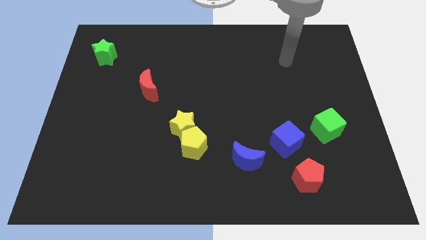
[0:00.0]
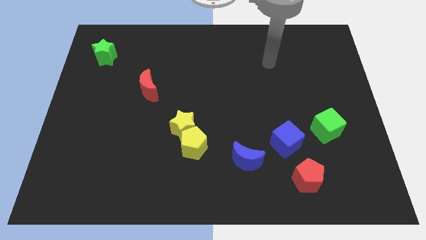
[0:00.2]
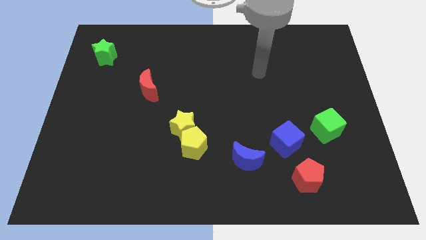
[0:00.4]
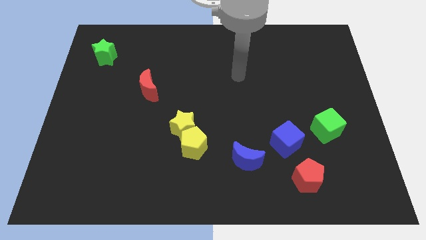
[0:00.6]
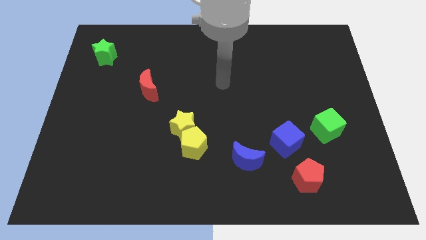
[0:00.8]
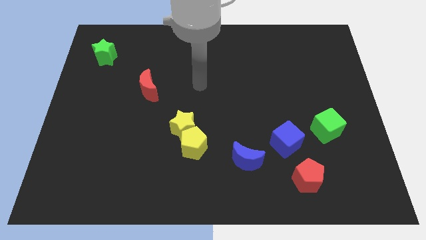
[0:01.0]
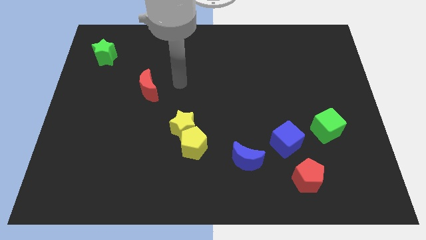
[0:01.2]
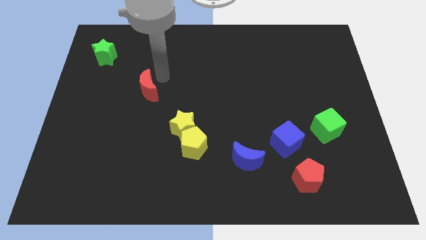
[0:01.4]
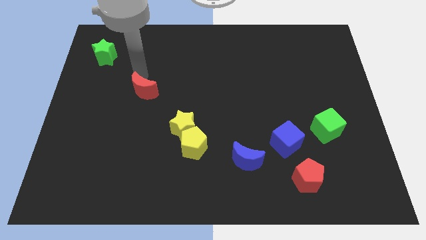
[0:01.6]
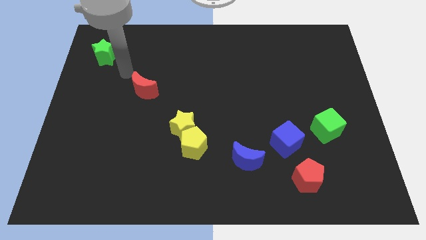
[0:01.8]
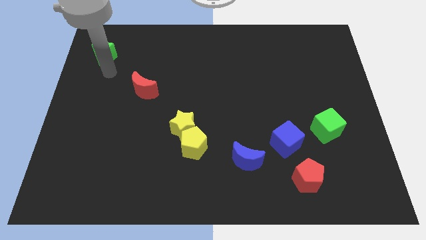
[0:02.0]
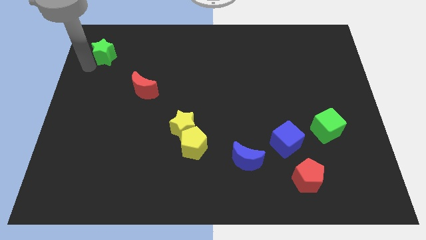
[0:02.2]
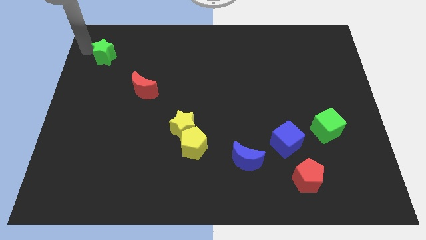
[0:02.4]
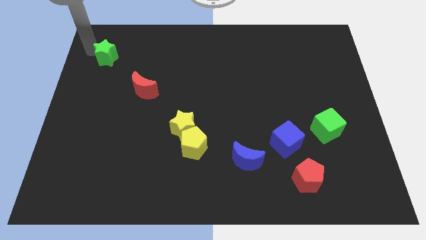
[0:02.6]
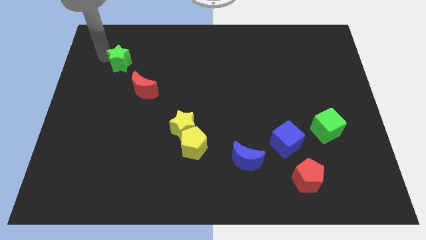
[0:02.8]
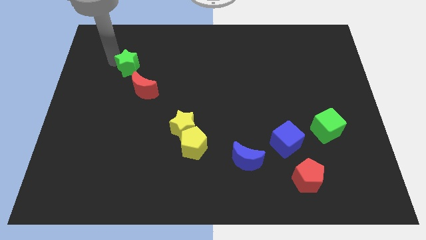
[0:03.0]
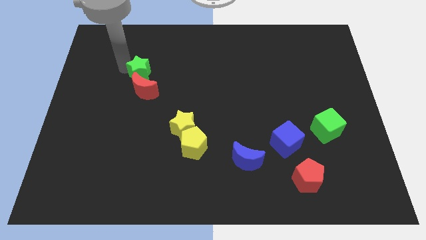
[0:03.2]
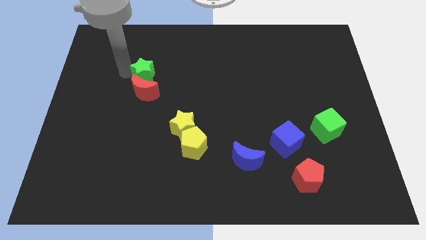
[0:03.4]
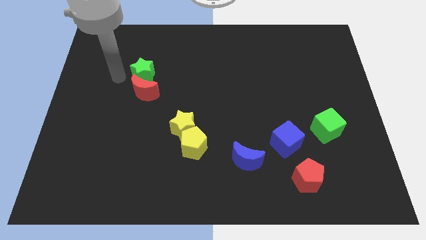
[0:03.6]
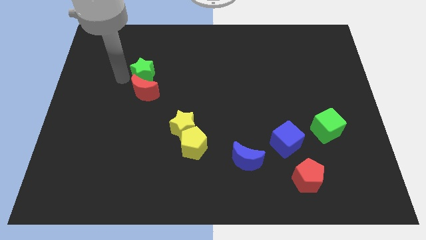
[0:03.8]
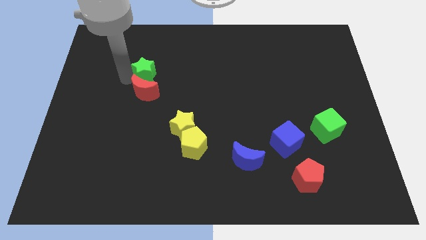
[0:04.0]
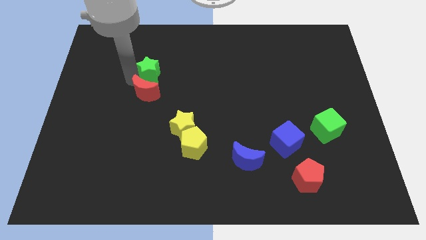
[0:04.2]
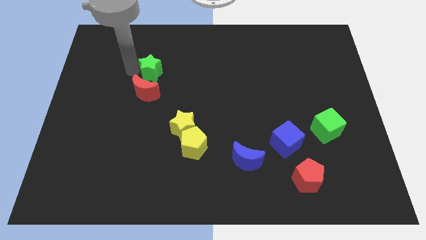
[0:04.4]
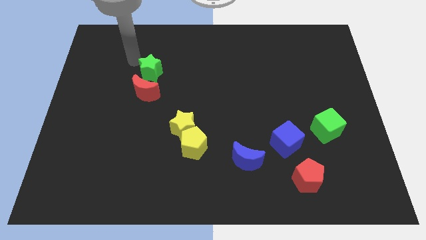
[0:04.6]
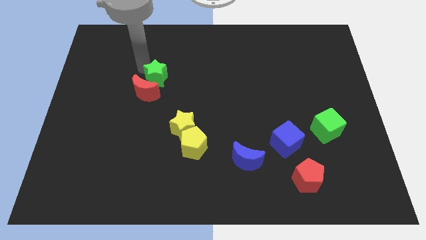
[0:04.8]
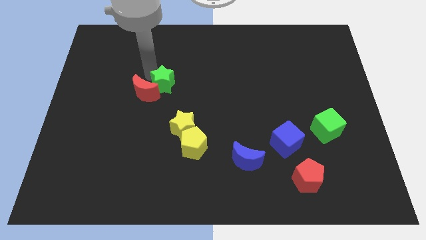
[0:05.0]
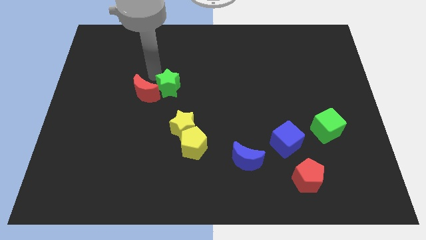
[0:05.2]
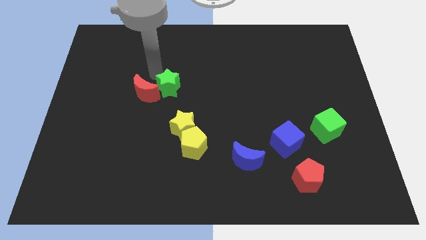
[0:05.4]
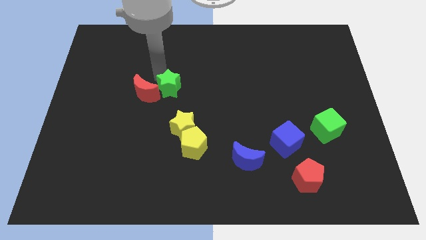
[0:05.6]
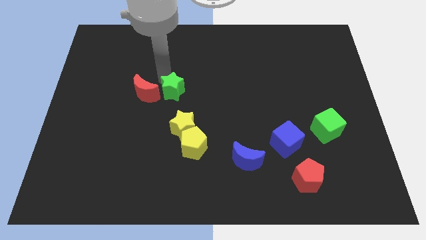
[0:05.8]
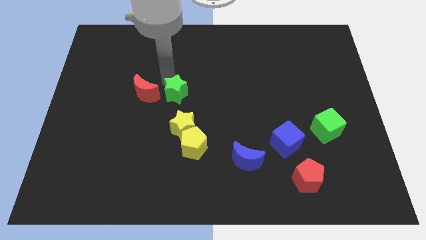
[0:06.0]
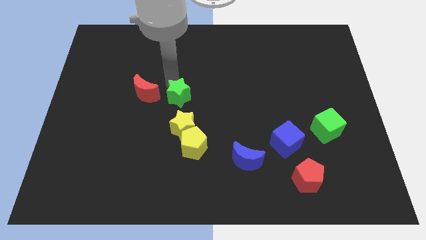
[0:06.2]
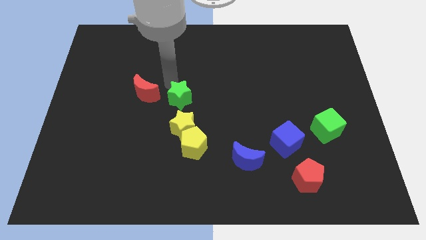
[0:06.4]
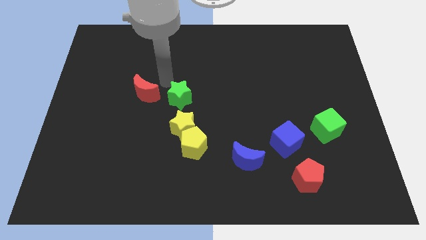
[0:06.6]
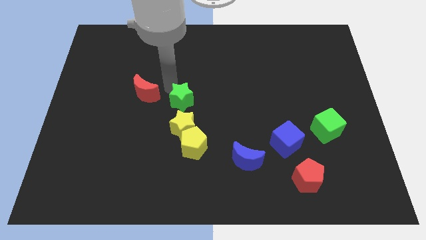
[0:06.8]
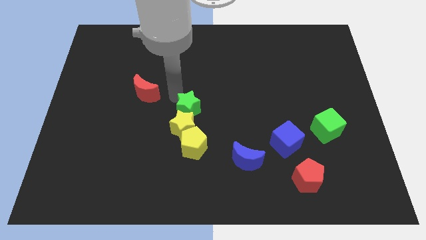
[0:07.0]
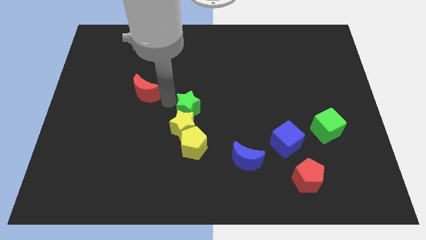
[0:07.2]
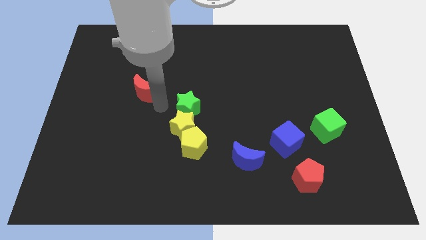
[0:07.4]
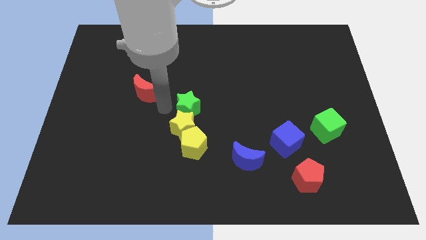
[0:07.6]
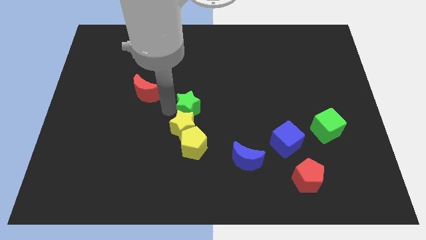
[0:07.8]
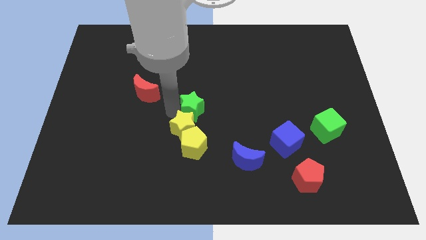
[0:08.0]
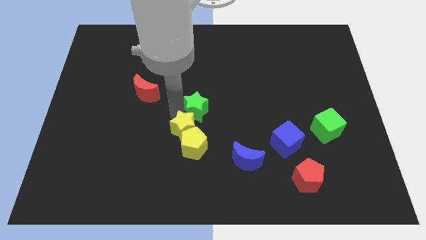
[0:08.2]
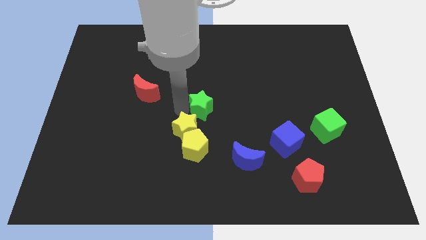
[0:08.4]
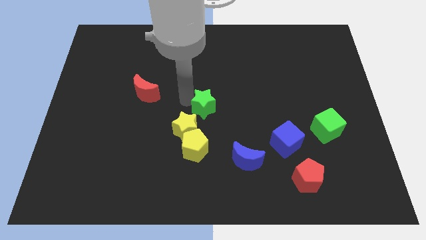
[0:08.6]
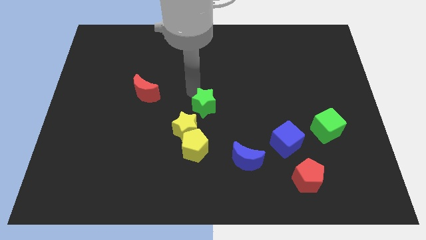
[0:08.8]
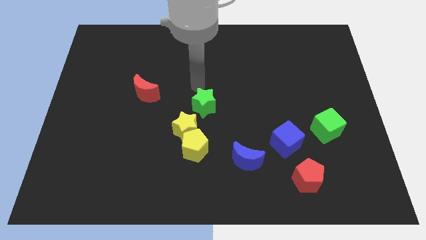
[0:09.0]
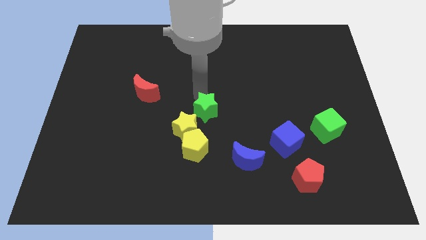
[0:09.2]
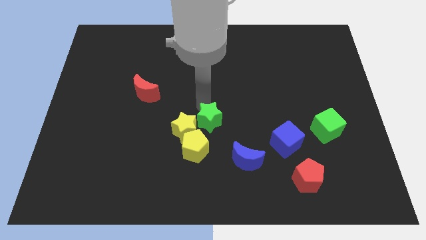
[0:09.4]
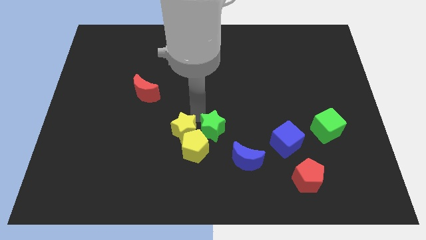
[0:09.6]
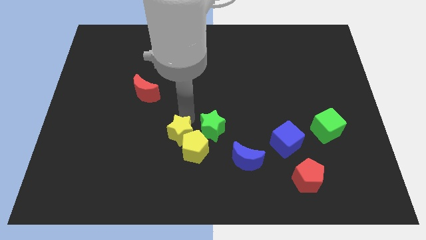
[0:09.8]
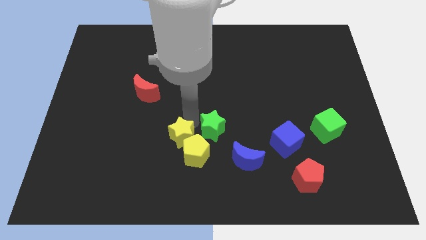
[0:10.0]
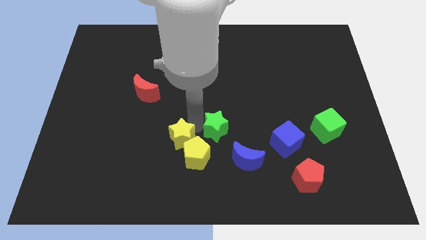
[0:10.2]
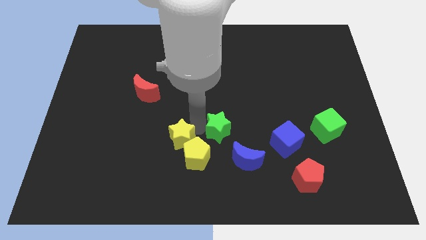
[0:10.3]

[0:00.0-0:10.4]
slide the green star to the left side of the blue cube

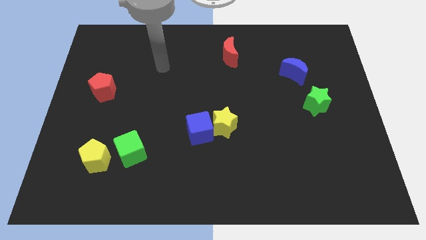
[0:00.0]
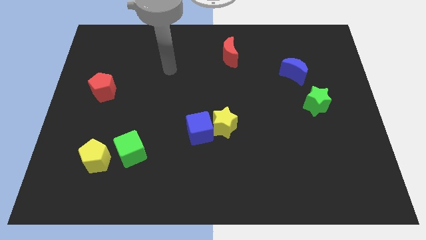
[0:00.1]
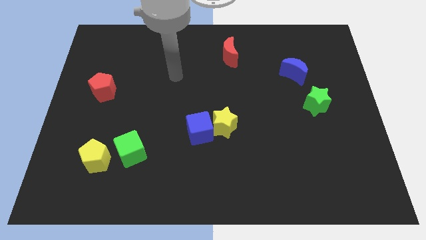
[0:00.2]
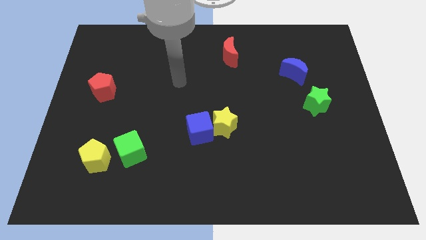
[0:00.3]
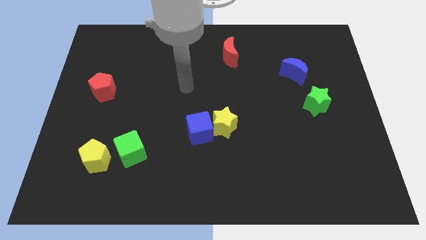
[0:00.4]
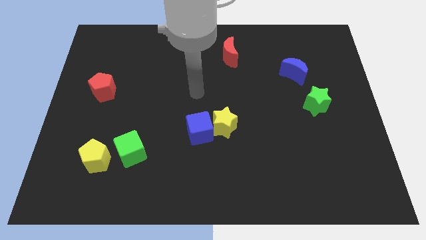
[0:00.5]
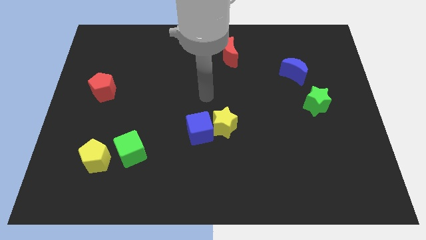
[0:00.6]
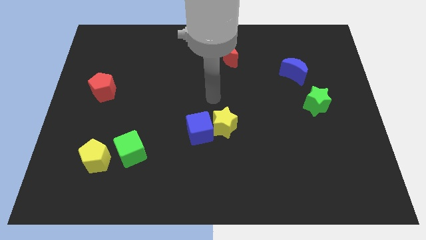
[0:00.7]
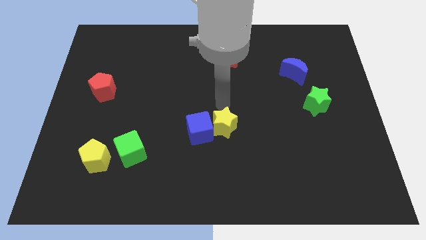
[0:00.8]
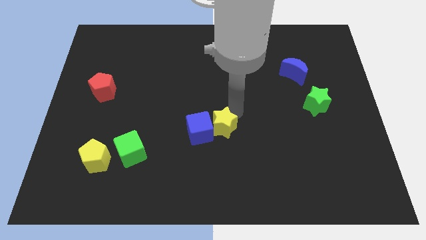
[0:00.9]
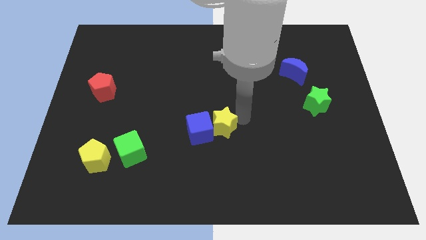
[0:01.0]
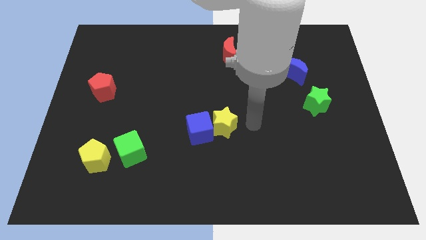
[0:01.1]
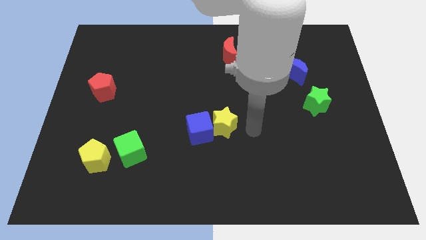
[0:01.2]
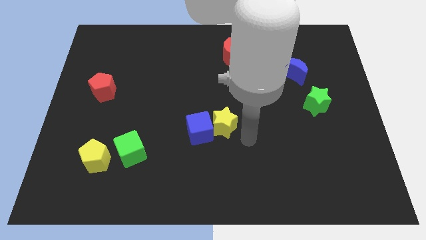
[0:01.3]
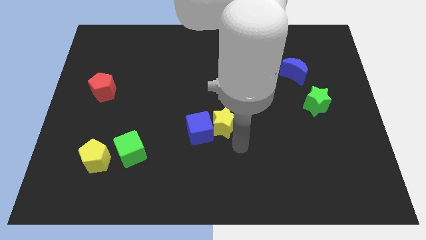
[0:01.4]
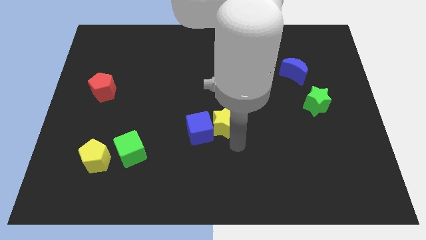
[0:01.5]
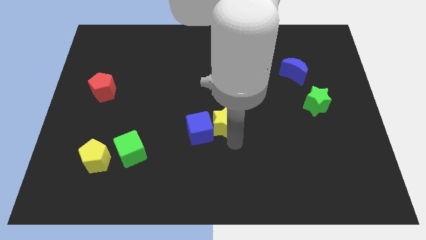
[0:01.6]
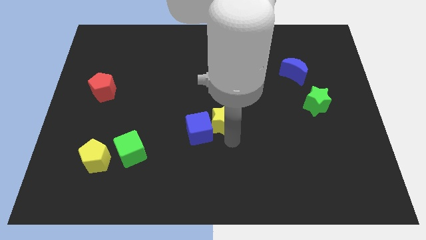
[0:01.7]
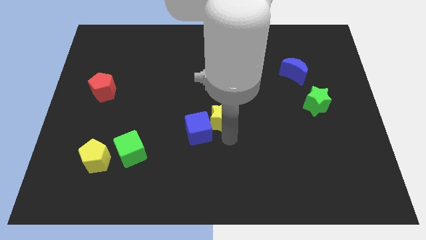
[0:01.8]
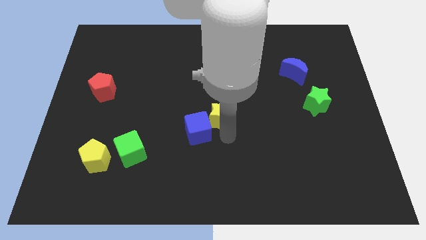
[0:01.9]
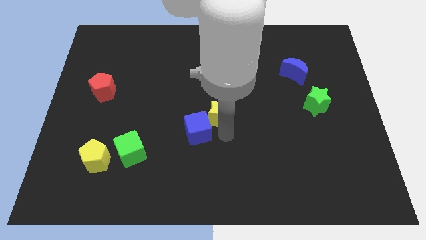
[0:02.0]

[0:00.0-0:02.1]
push the yellow star to the top side of the blue cube
